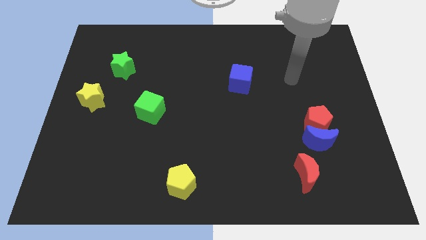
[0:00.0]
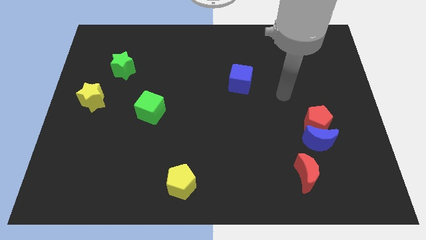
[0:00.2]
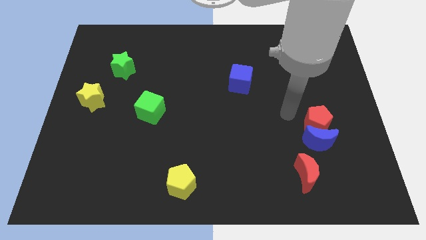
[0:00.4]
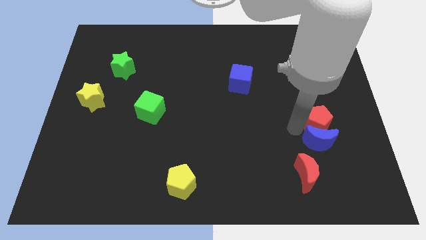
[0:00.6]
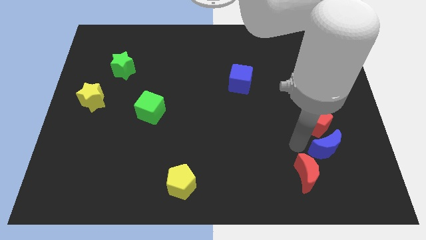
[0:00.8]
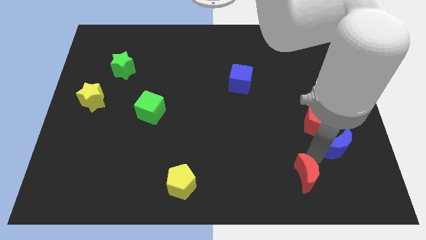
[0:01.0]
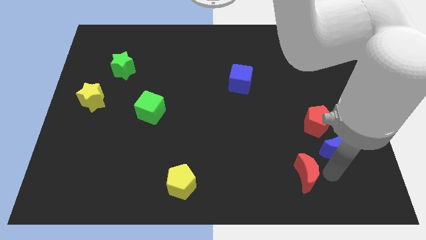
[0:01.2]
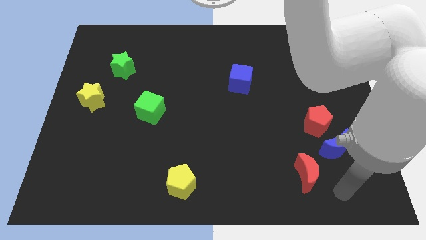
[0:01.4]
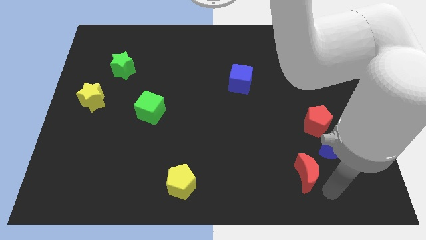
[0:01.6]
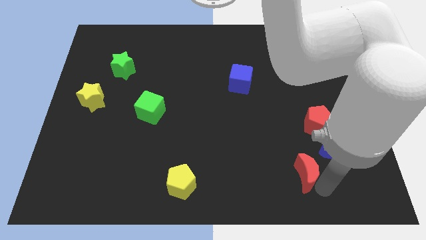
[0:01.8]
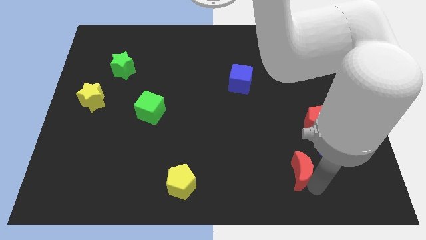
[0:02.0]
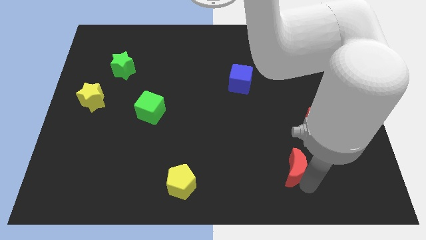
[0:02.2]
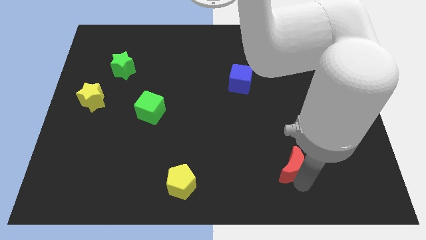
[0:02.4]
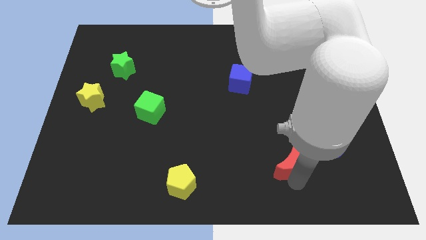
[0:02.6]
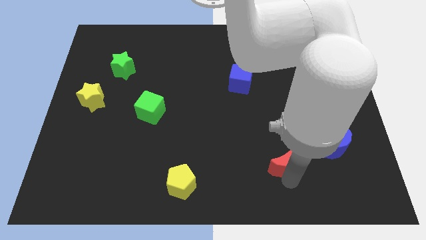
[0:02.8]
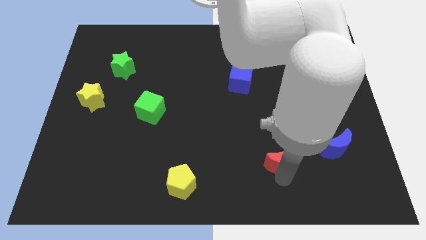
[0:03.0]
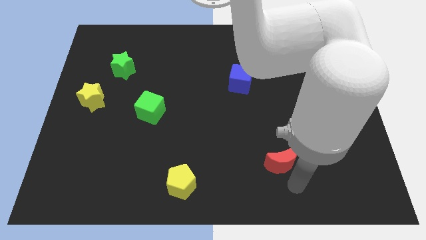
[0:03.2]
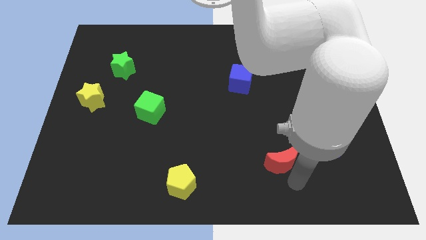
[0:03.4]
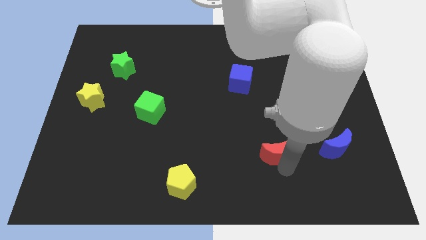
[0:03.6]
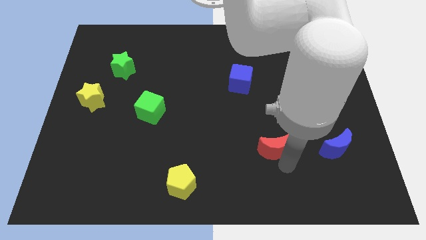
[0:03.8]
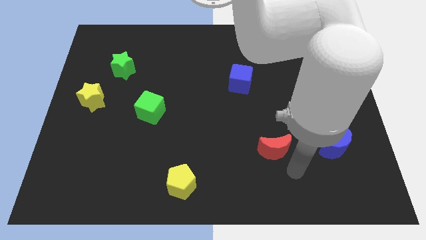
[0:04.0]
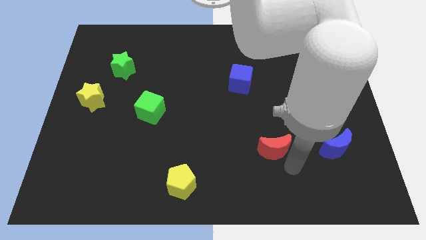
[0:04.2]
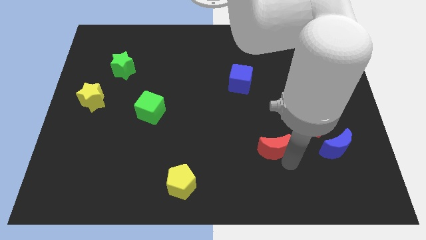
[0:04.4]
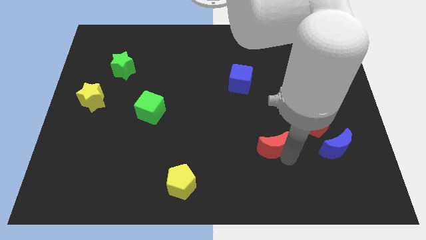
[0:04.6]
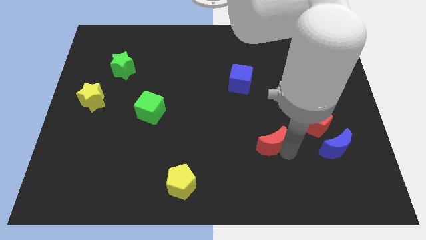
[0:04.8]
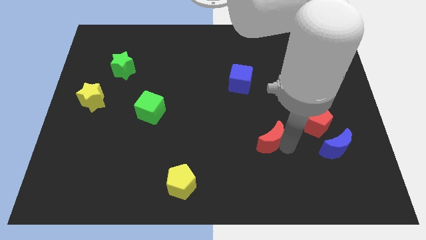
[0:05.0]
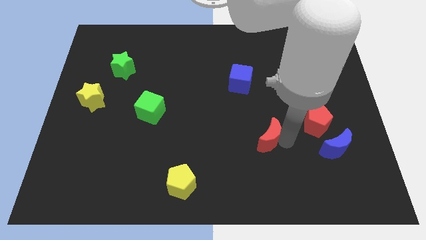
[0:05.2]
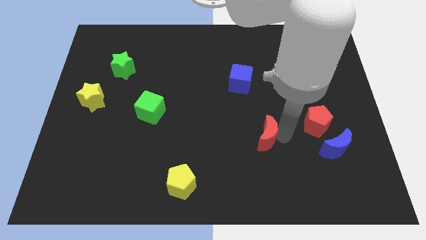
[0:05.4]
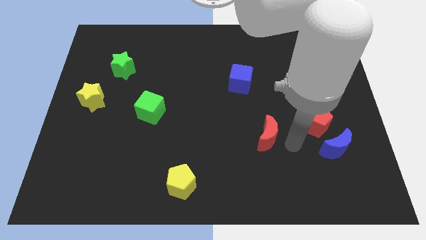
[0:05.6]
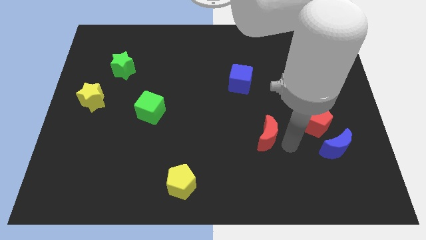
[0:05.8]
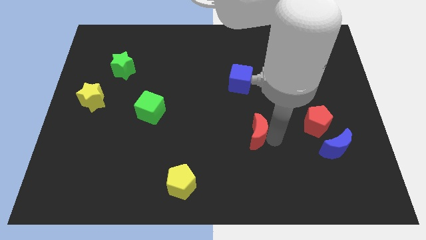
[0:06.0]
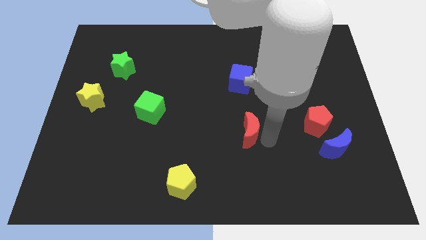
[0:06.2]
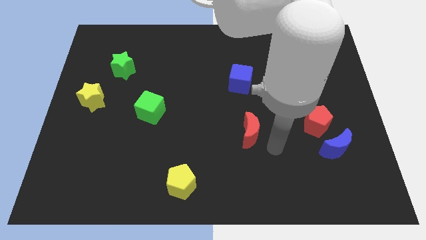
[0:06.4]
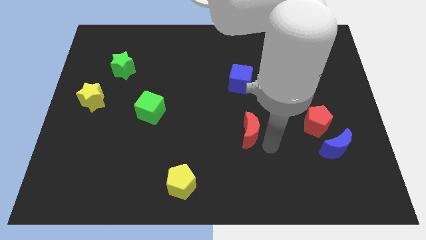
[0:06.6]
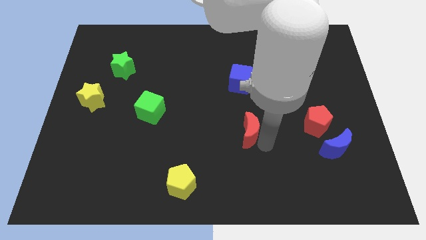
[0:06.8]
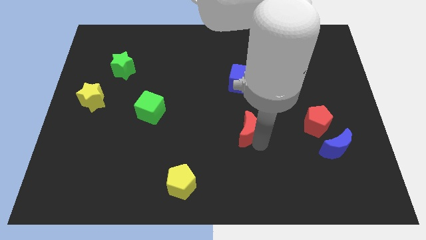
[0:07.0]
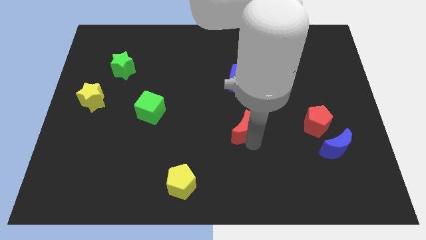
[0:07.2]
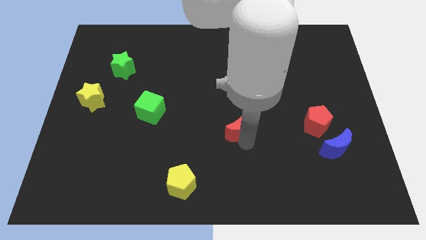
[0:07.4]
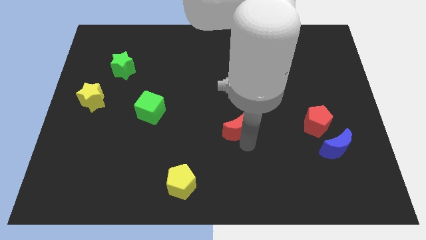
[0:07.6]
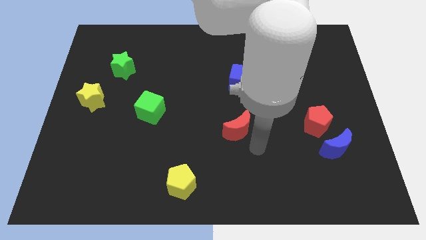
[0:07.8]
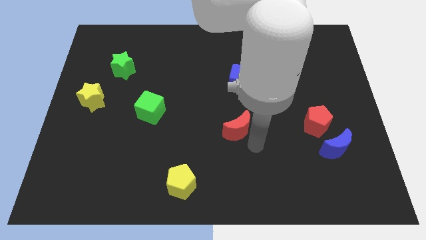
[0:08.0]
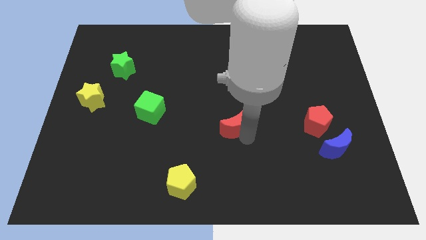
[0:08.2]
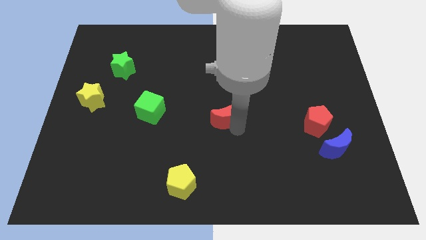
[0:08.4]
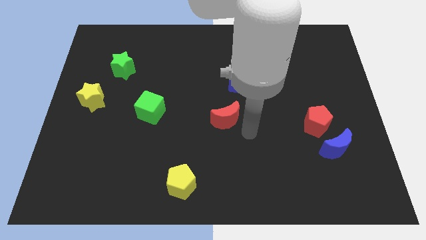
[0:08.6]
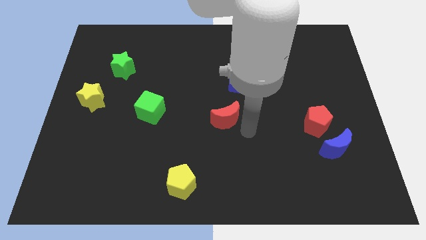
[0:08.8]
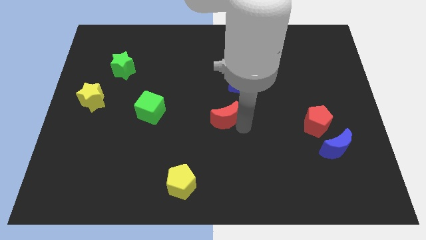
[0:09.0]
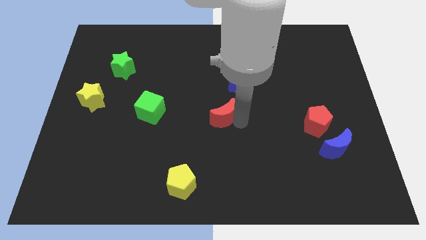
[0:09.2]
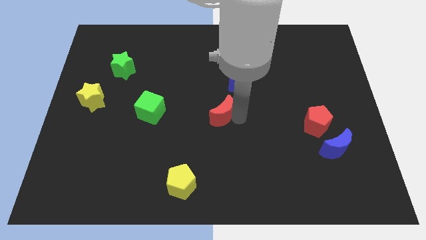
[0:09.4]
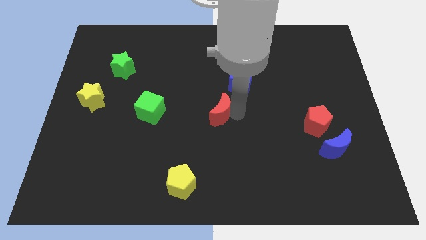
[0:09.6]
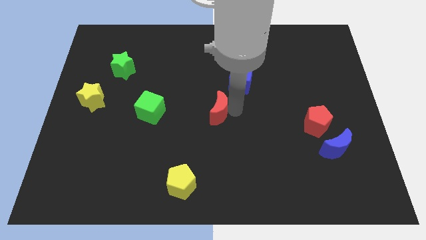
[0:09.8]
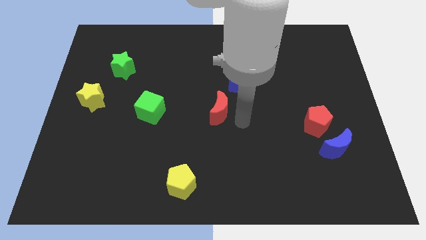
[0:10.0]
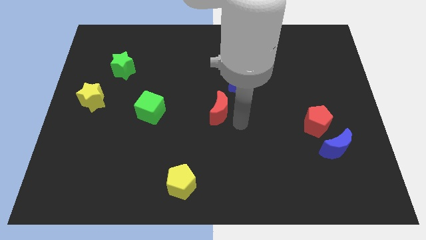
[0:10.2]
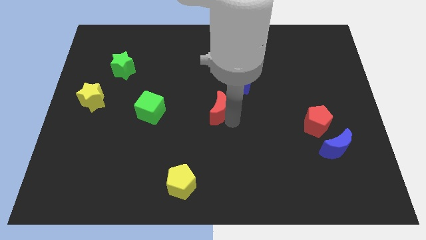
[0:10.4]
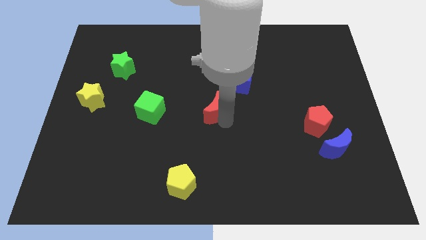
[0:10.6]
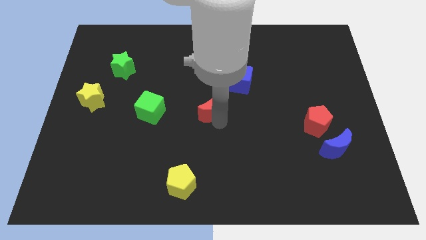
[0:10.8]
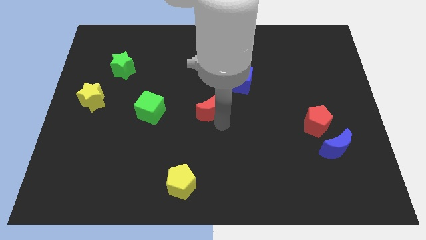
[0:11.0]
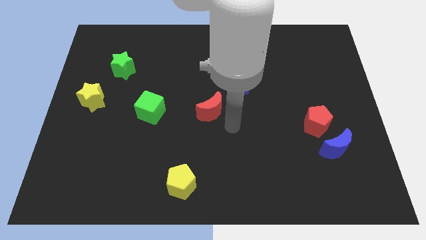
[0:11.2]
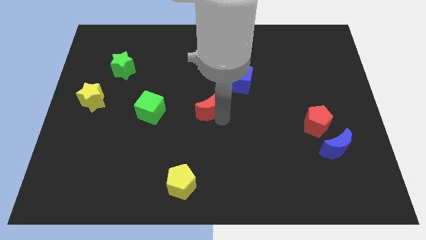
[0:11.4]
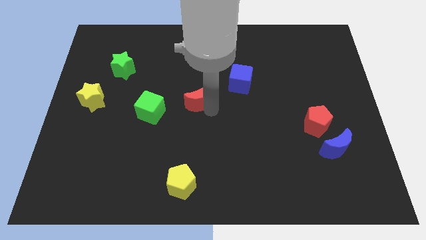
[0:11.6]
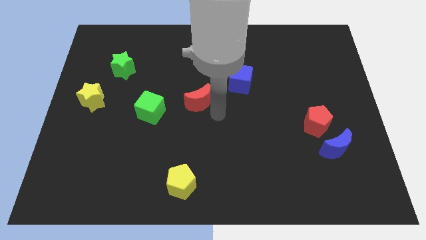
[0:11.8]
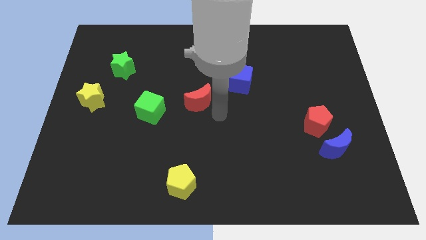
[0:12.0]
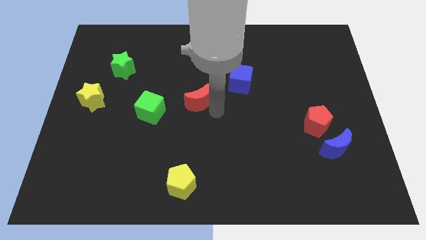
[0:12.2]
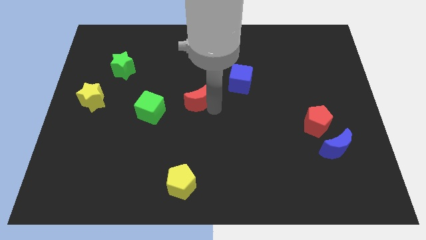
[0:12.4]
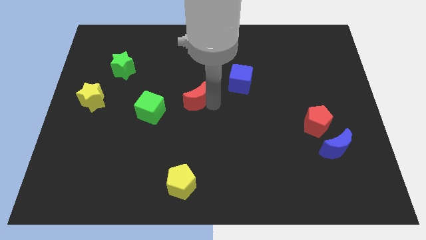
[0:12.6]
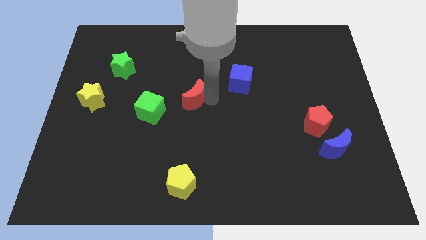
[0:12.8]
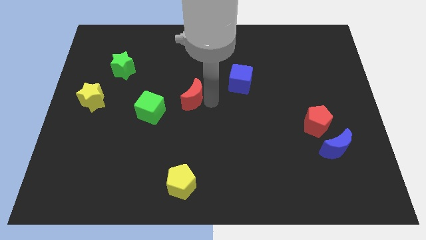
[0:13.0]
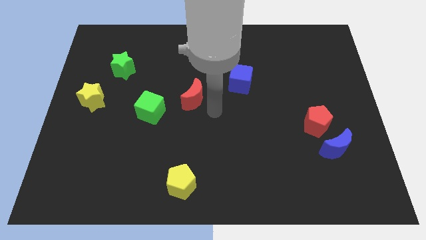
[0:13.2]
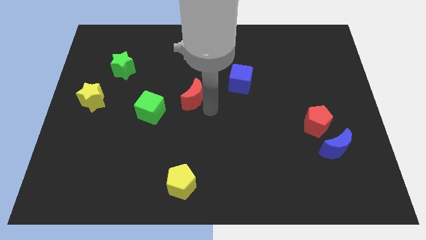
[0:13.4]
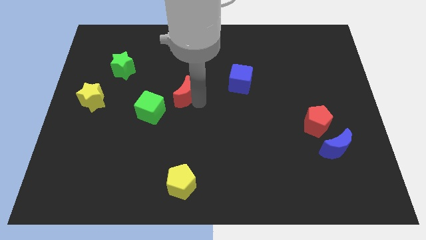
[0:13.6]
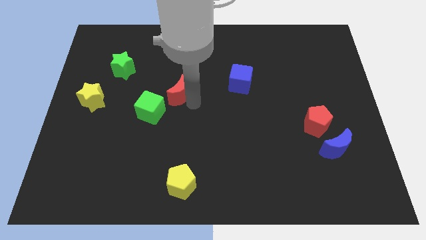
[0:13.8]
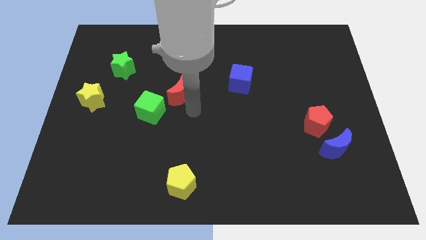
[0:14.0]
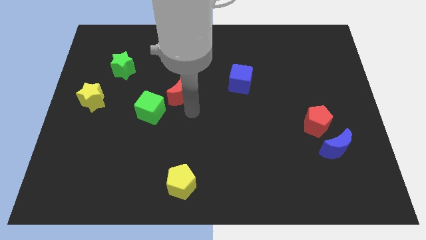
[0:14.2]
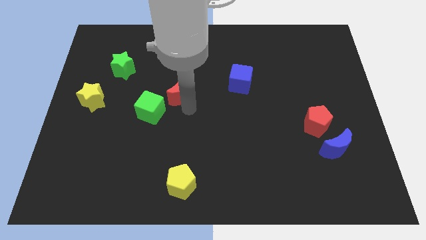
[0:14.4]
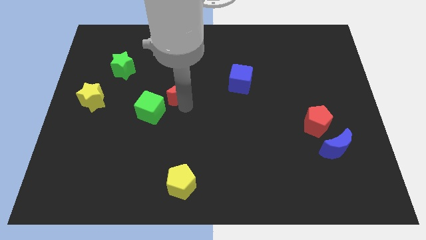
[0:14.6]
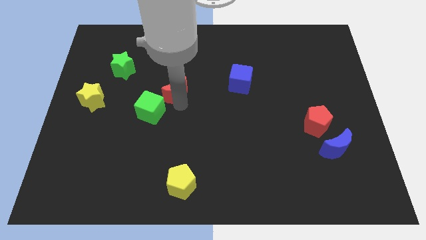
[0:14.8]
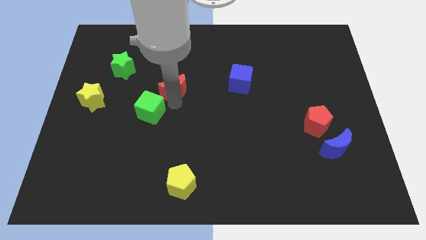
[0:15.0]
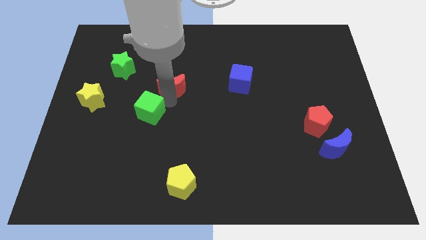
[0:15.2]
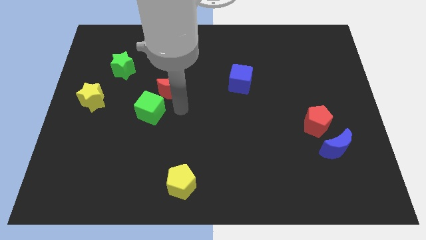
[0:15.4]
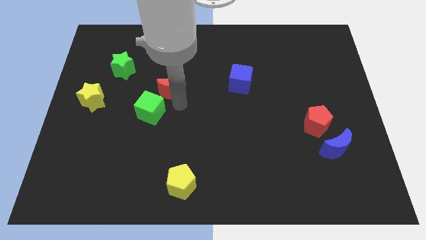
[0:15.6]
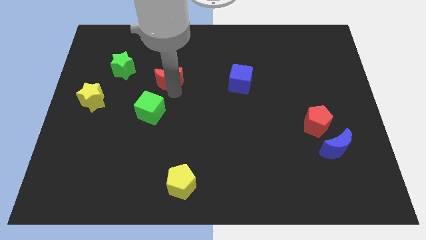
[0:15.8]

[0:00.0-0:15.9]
slide the red moon to the right of the green star
